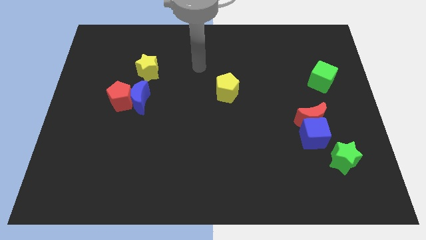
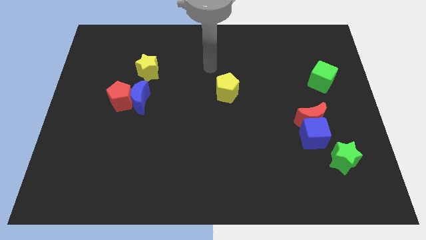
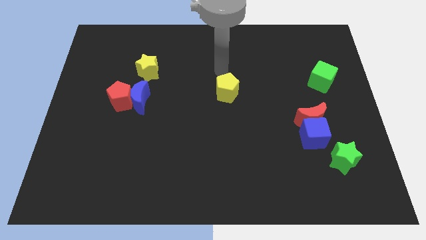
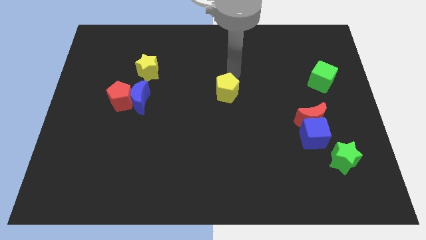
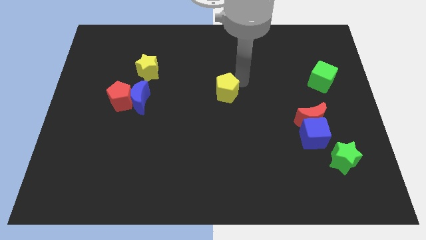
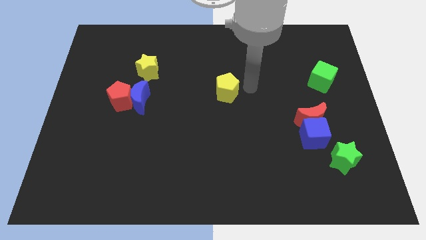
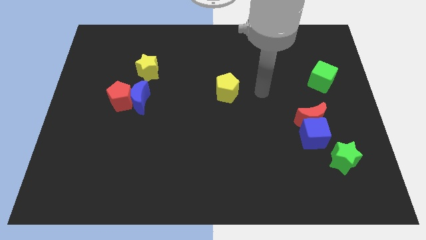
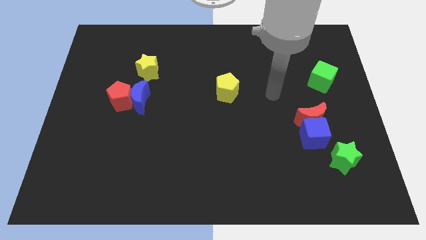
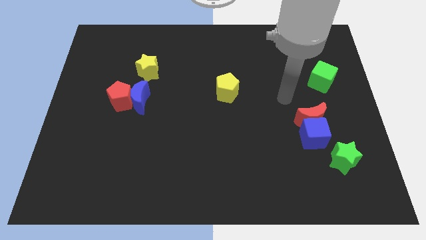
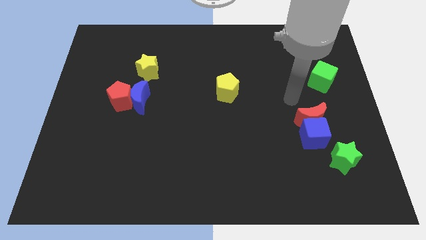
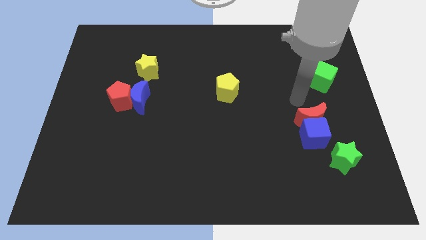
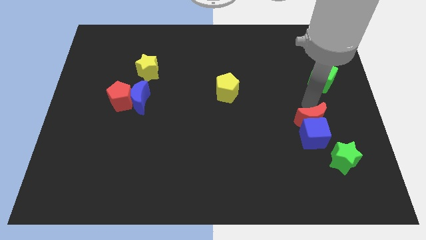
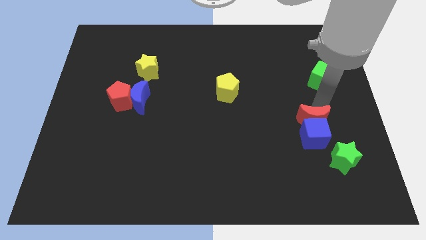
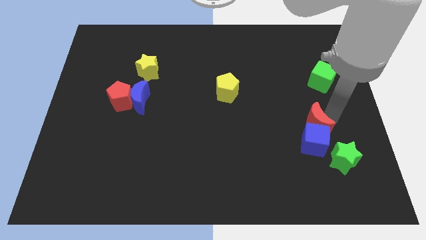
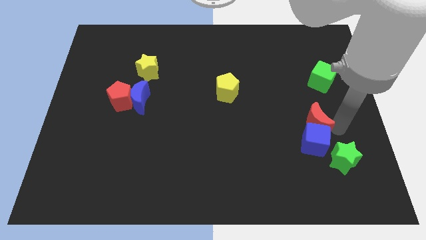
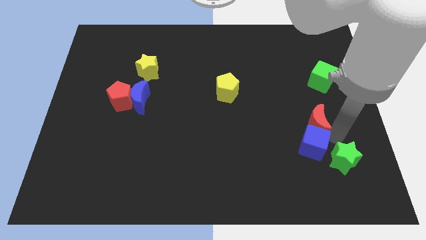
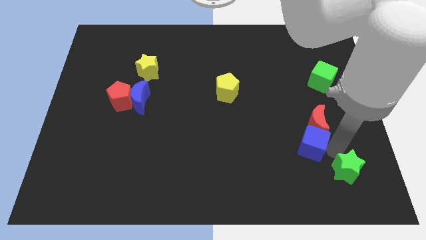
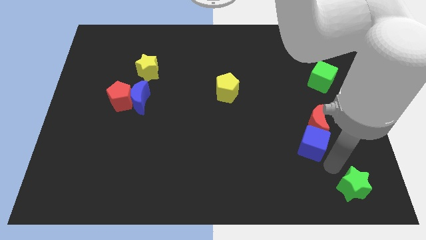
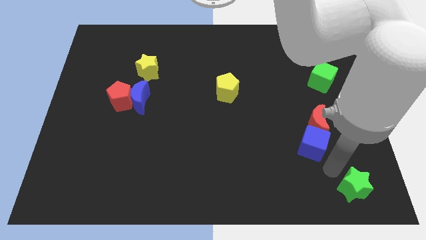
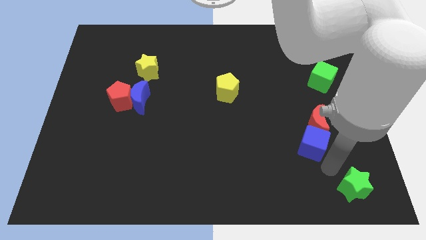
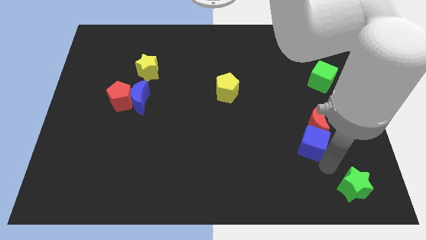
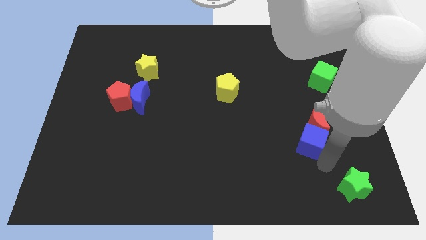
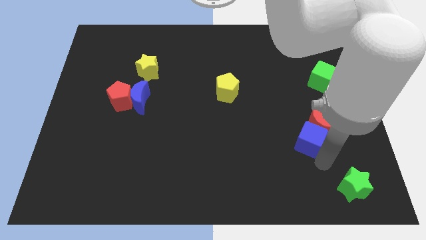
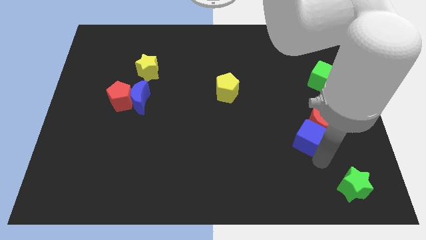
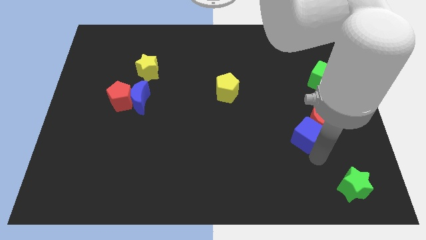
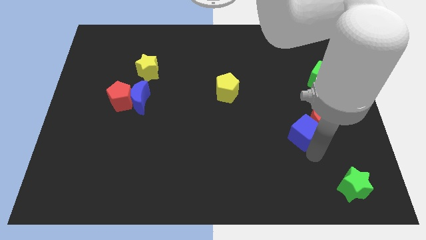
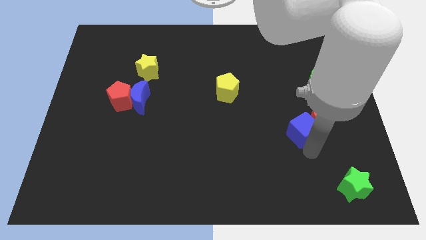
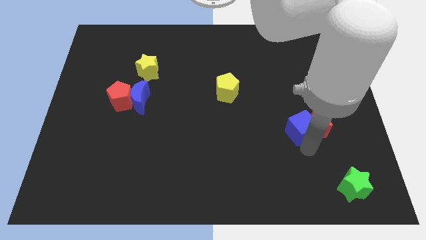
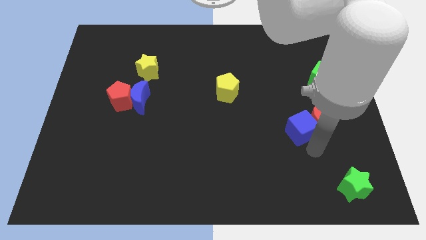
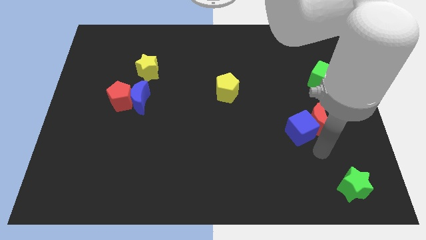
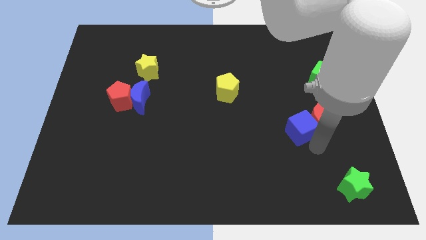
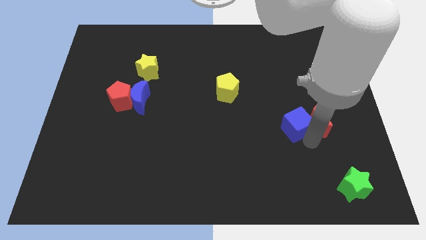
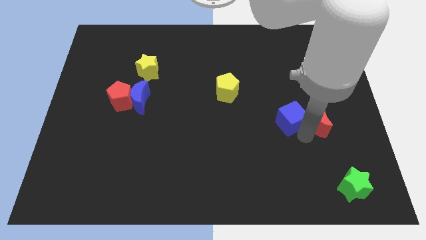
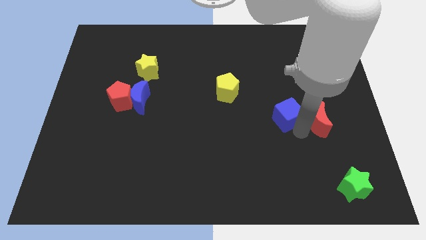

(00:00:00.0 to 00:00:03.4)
push the blue cube upwards and left diagonally a bit

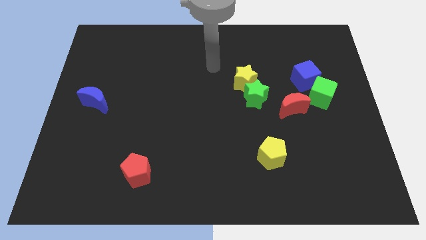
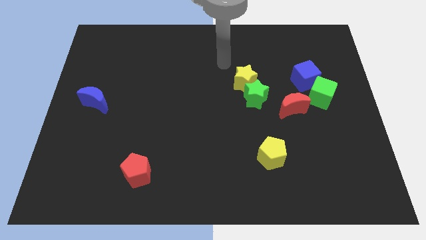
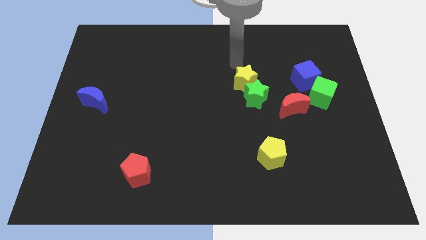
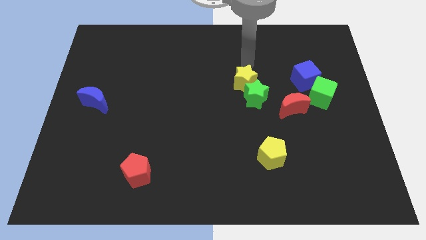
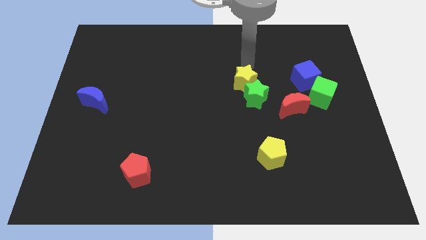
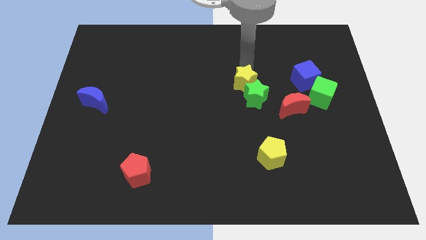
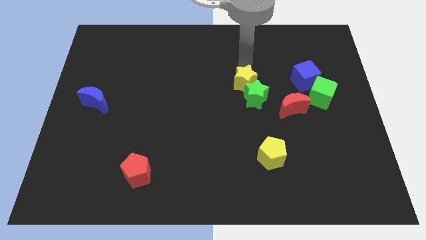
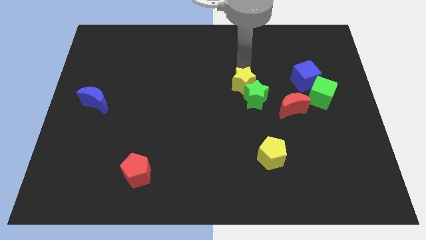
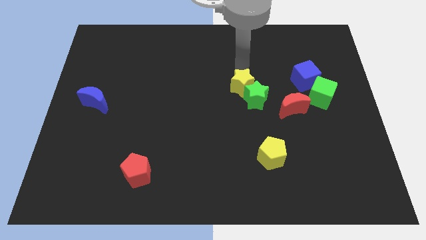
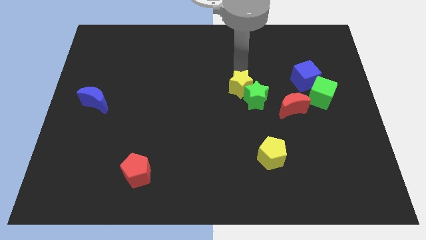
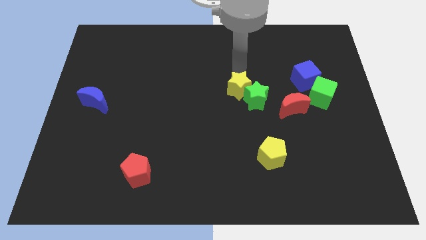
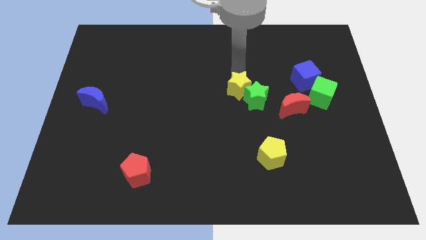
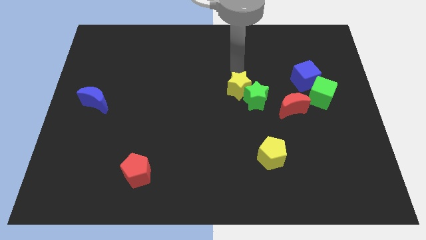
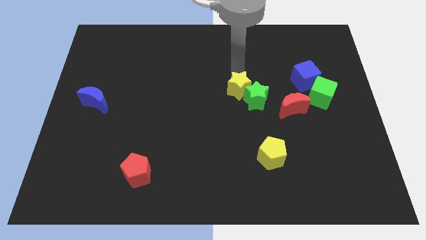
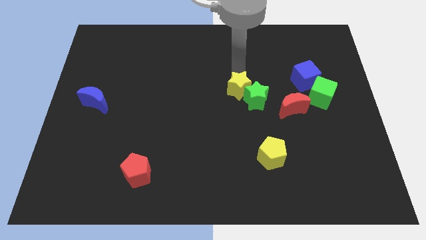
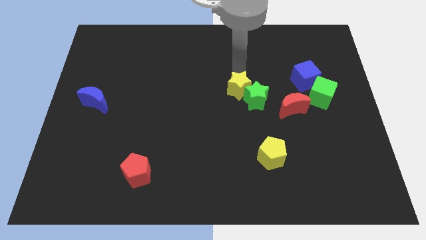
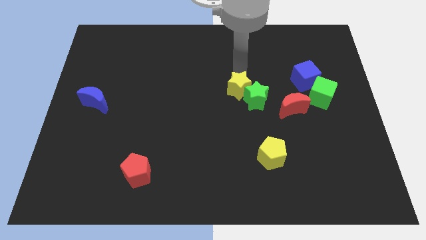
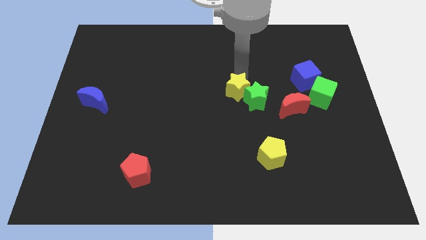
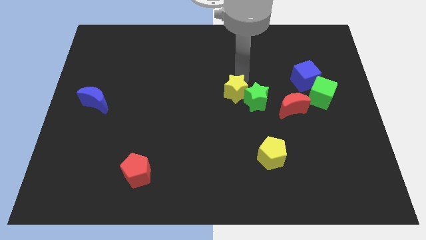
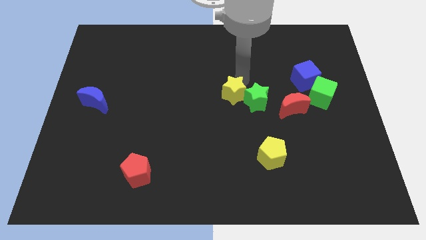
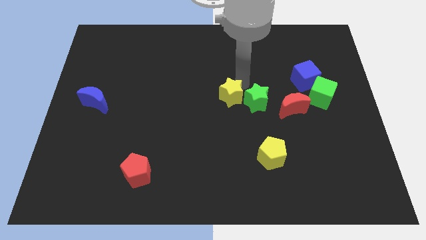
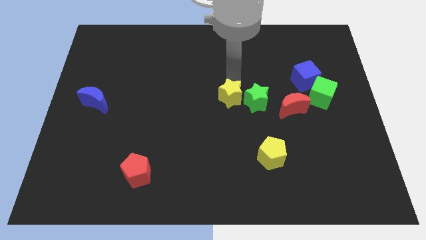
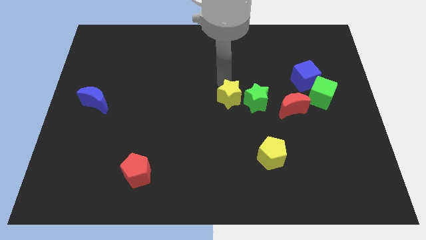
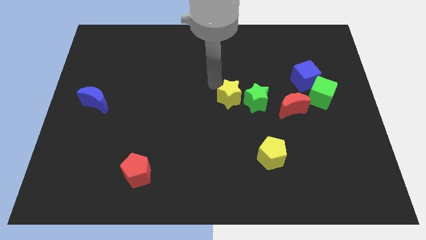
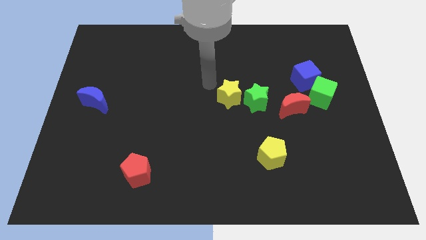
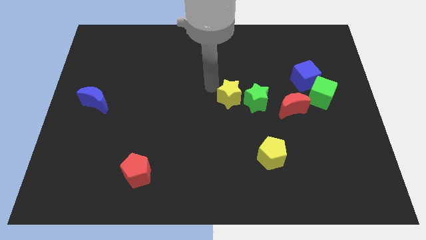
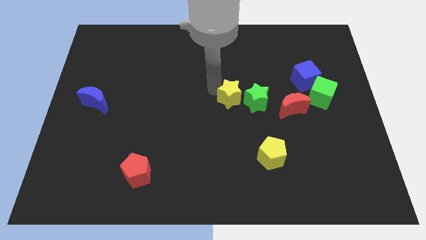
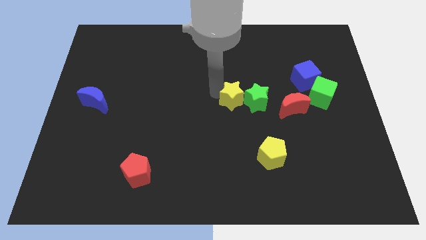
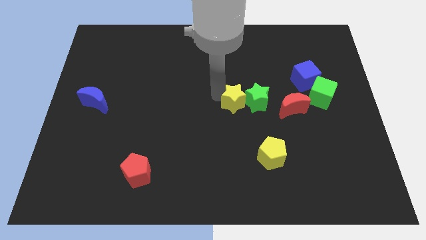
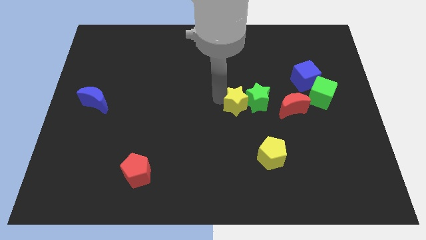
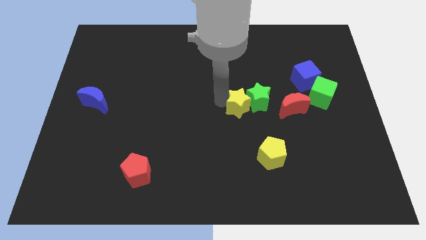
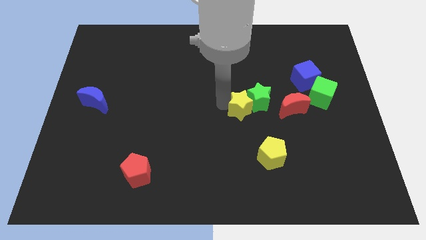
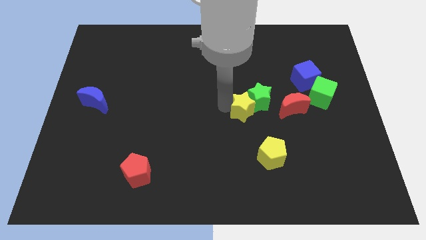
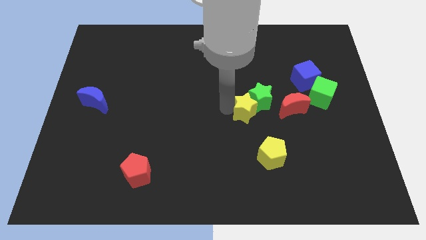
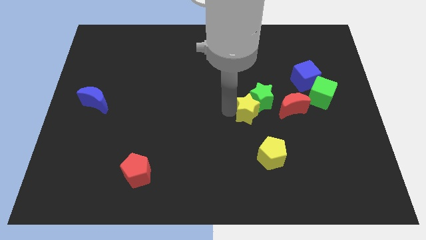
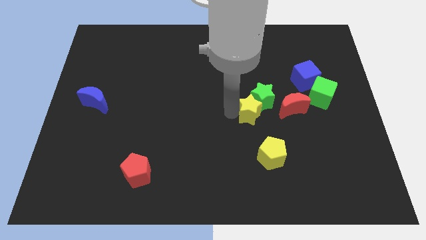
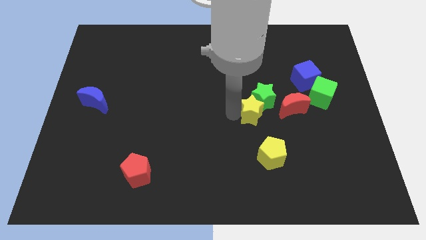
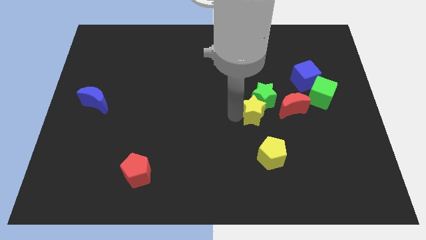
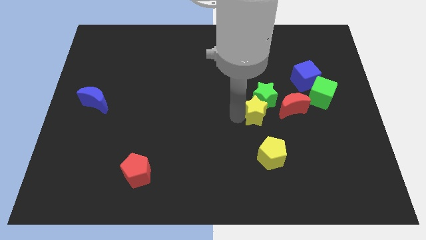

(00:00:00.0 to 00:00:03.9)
push the yellow star slightly diagonally down and right

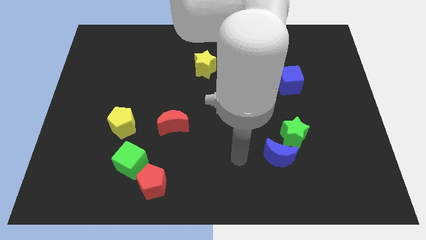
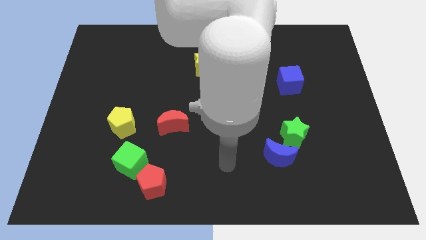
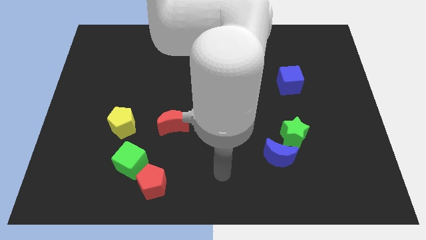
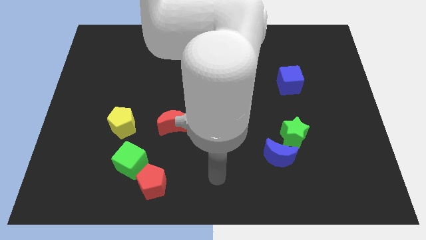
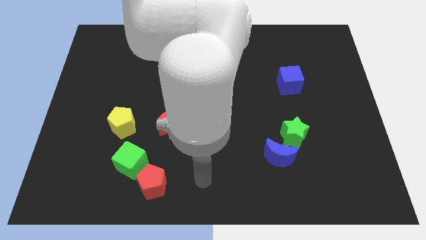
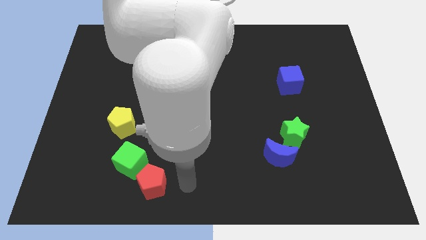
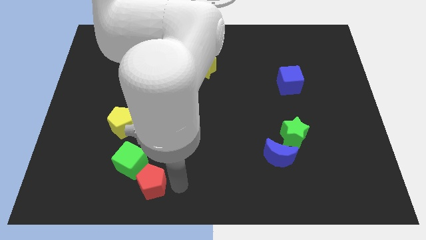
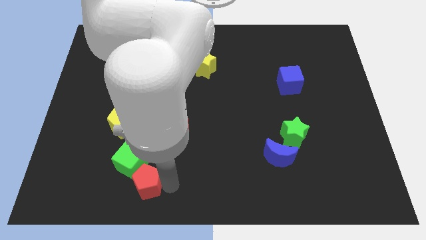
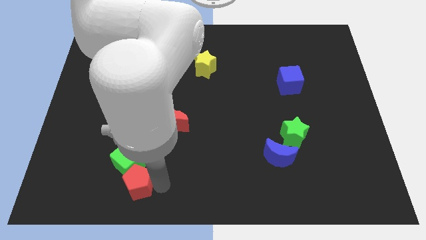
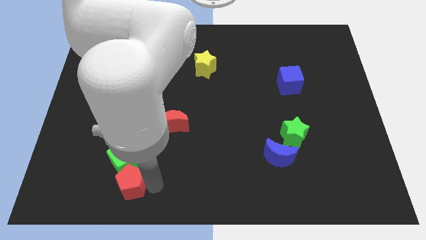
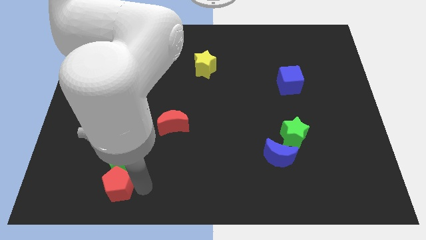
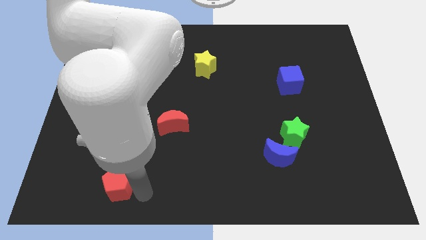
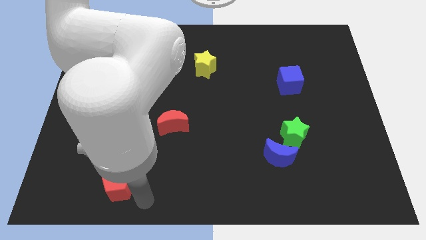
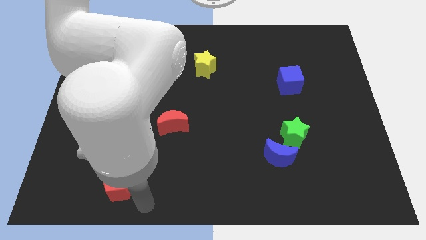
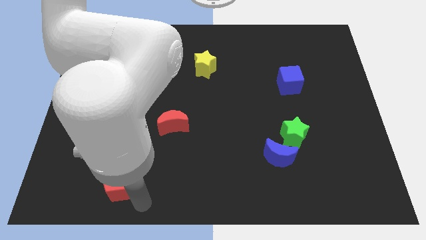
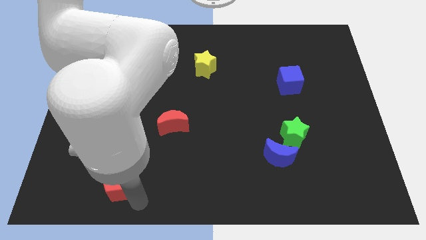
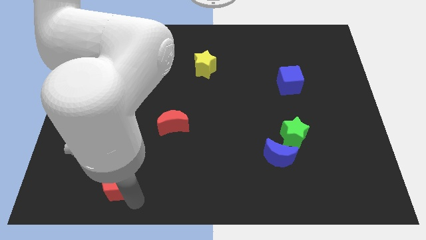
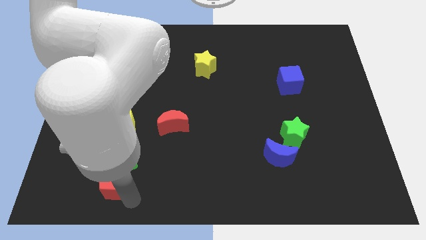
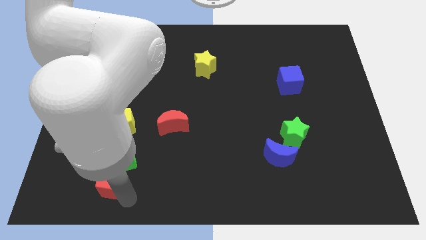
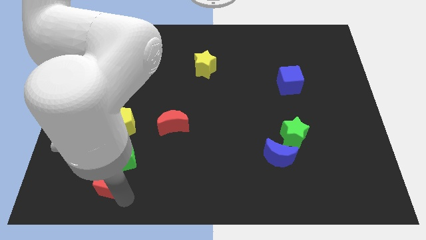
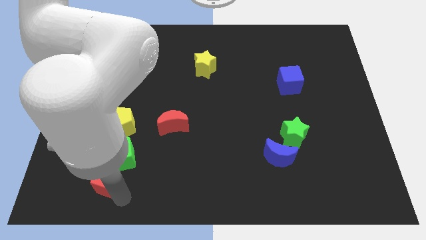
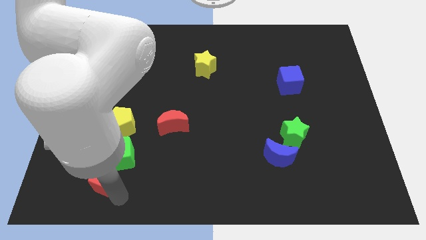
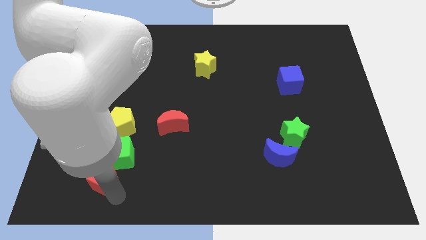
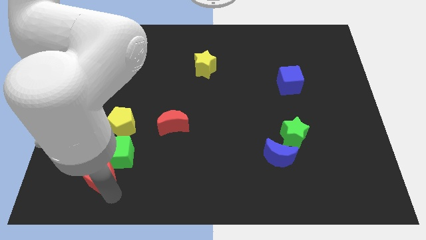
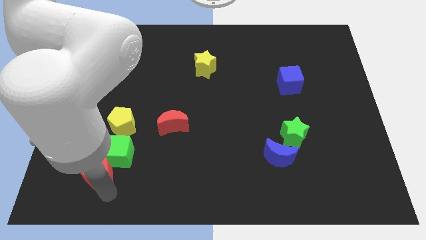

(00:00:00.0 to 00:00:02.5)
move the red pentagon upwards and to the left a little bit
